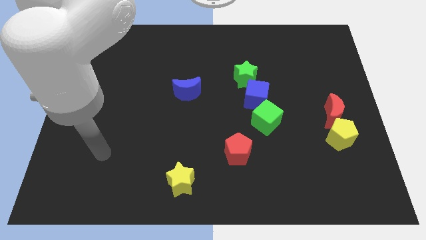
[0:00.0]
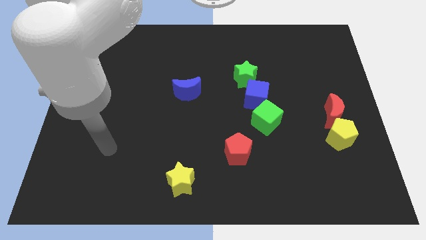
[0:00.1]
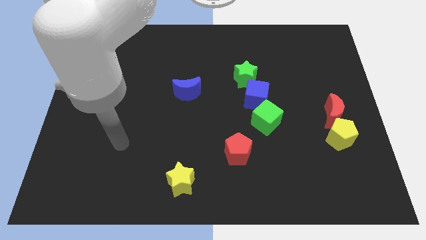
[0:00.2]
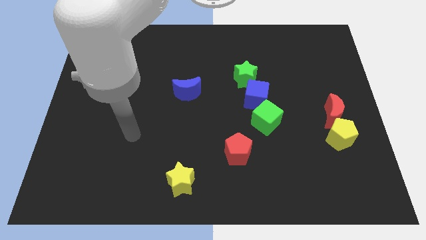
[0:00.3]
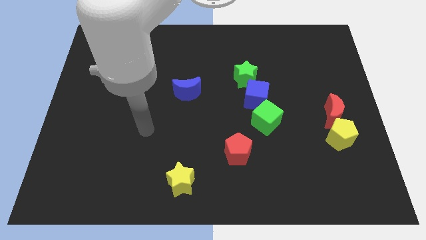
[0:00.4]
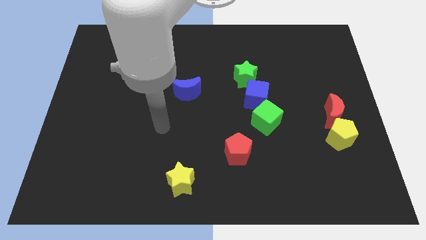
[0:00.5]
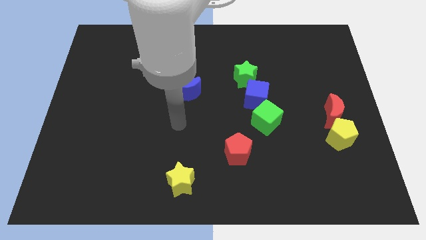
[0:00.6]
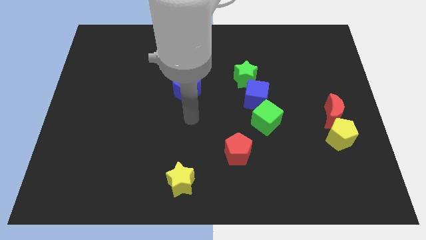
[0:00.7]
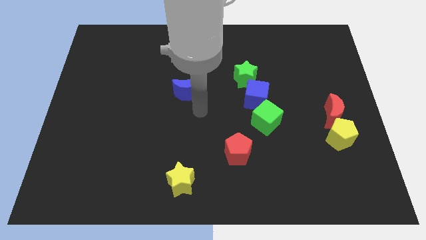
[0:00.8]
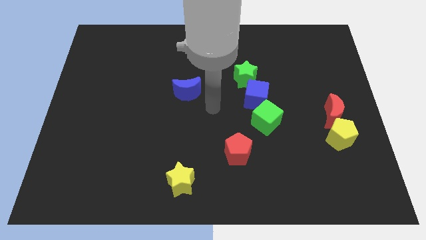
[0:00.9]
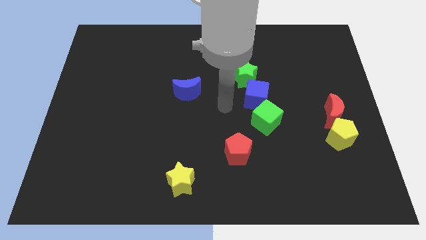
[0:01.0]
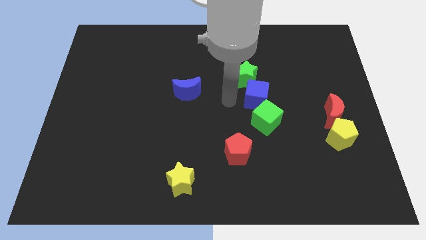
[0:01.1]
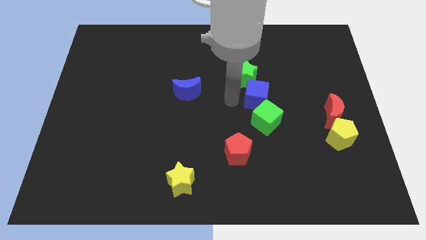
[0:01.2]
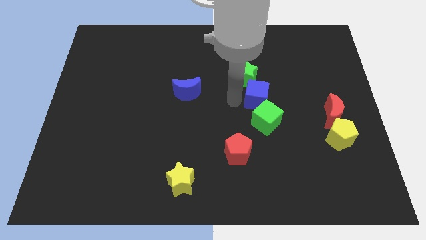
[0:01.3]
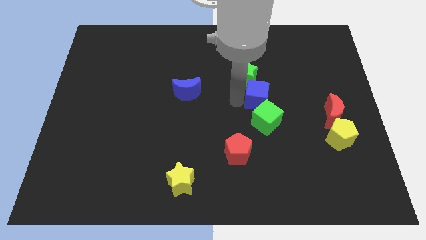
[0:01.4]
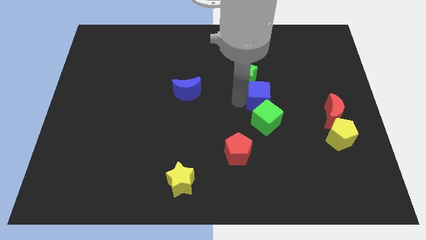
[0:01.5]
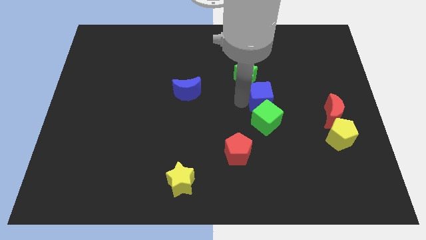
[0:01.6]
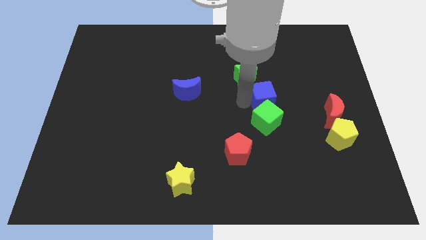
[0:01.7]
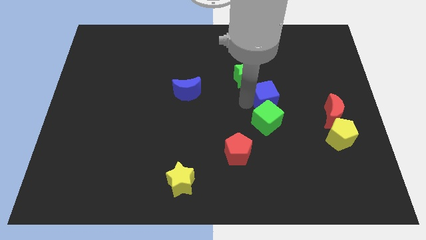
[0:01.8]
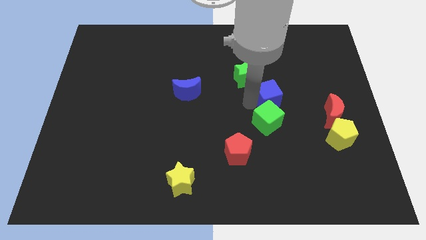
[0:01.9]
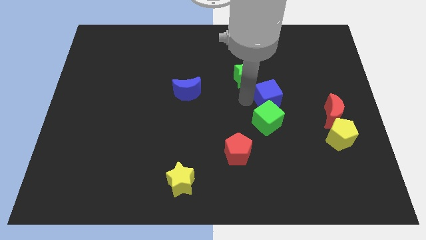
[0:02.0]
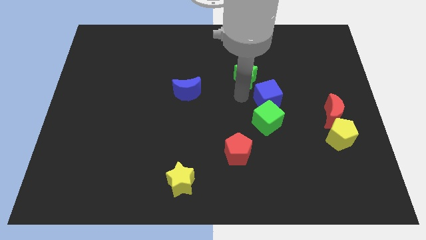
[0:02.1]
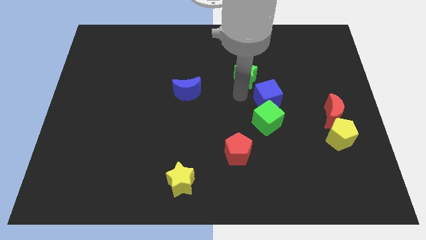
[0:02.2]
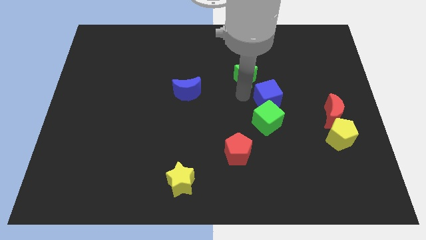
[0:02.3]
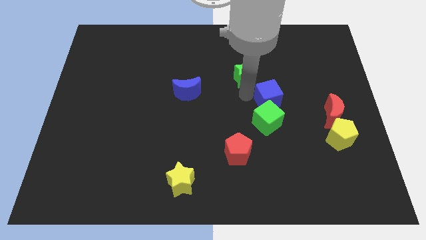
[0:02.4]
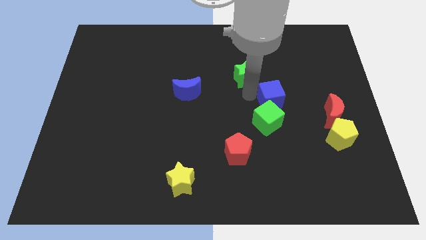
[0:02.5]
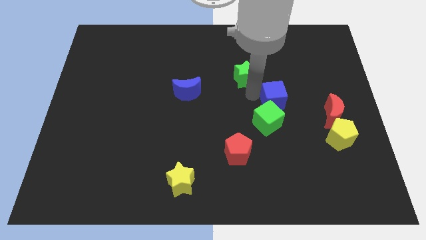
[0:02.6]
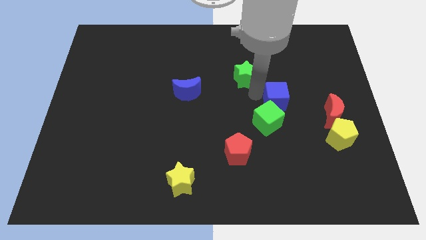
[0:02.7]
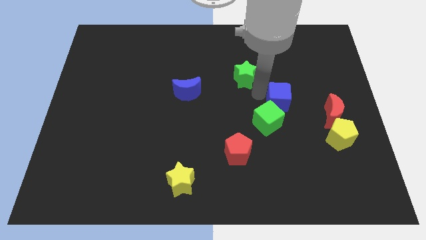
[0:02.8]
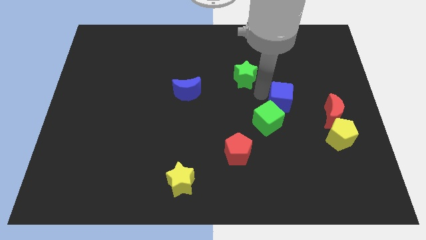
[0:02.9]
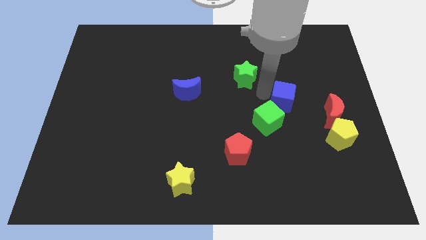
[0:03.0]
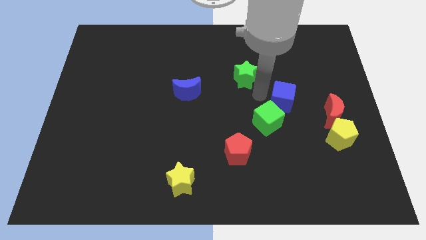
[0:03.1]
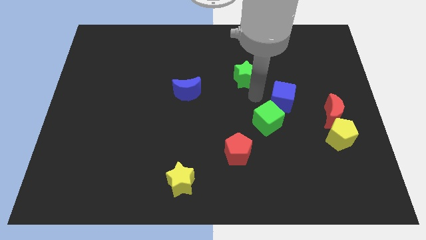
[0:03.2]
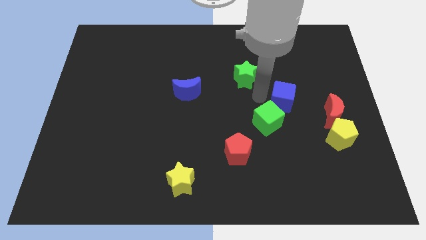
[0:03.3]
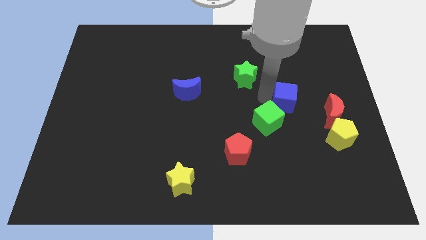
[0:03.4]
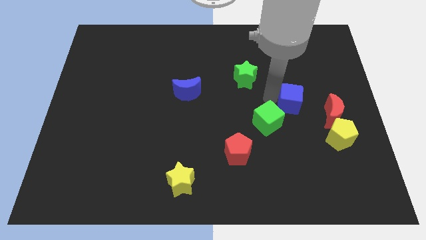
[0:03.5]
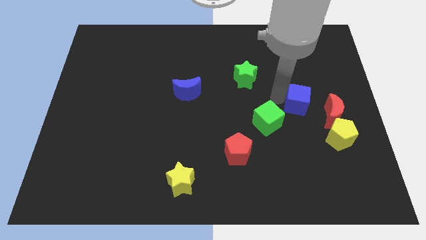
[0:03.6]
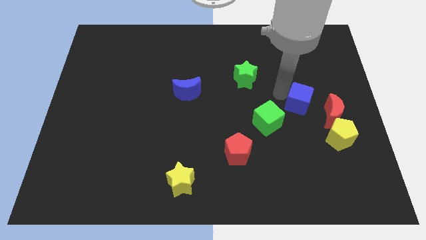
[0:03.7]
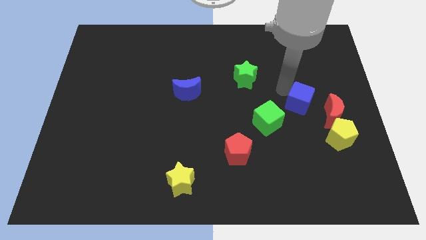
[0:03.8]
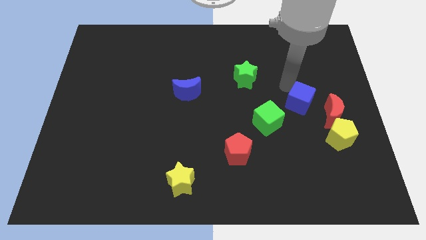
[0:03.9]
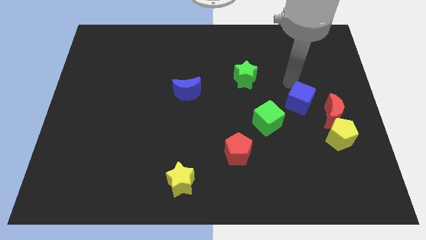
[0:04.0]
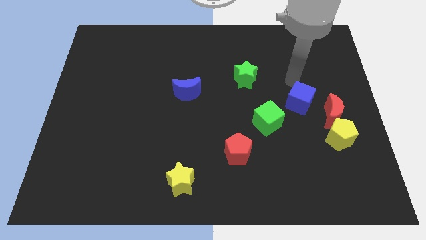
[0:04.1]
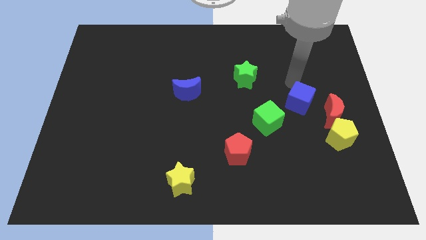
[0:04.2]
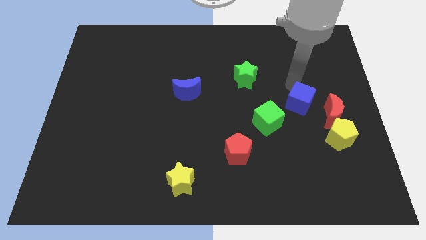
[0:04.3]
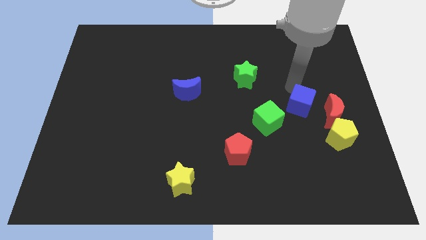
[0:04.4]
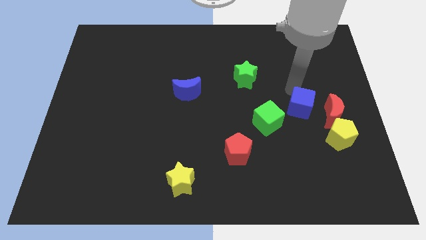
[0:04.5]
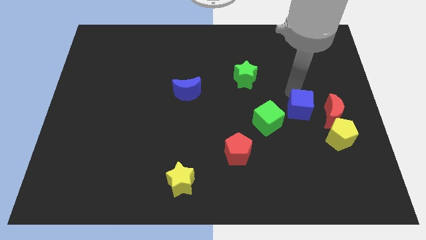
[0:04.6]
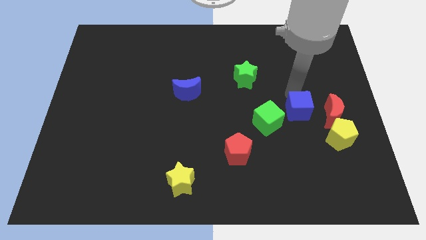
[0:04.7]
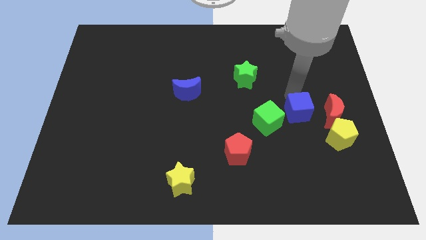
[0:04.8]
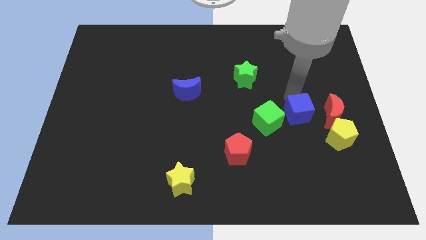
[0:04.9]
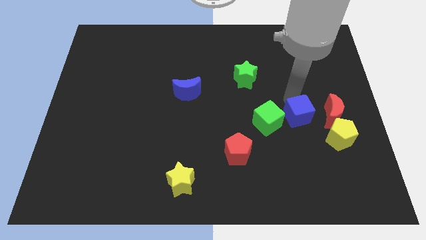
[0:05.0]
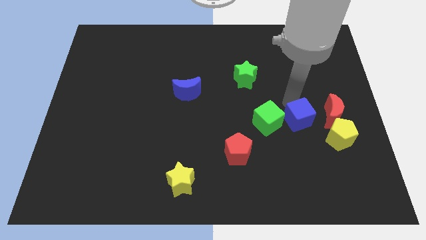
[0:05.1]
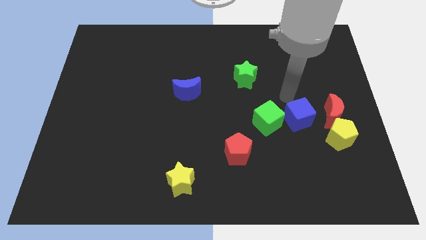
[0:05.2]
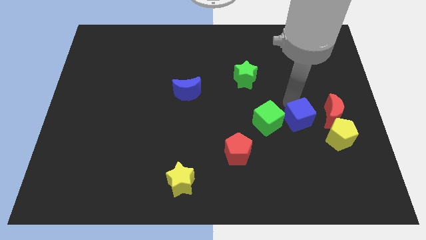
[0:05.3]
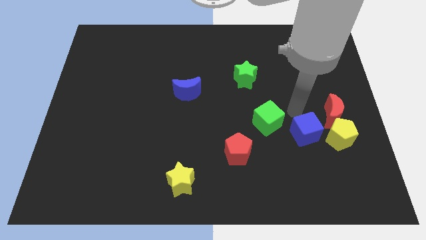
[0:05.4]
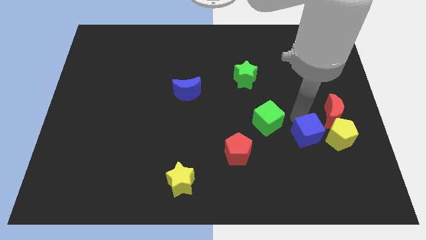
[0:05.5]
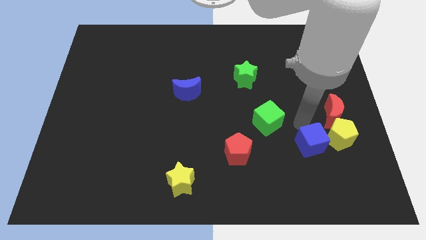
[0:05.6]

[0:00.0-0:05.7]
move the blue cube diagonally down and to the left of the yellow pentagon

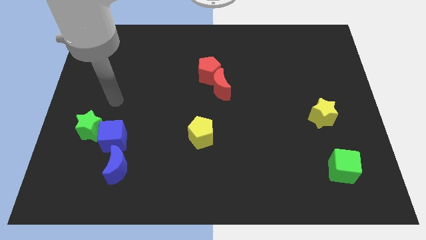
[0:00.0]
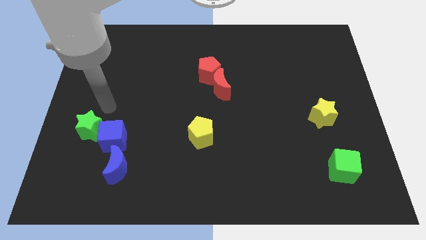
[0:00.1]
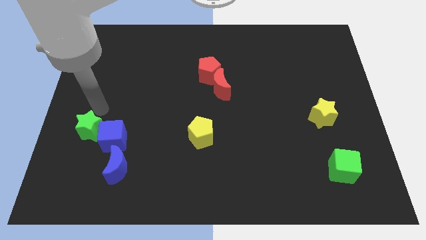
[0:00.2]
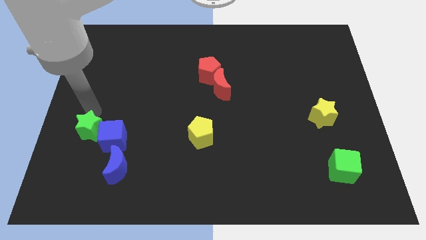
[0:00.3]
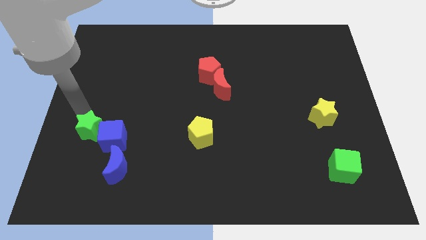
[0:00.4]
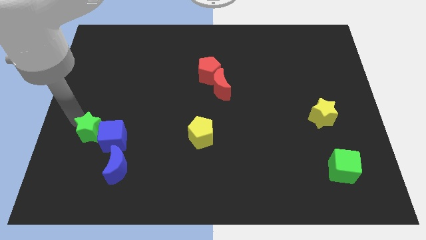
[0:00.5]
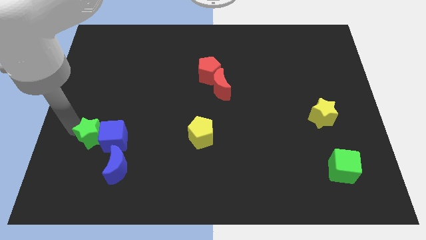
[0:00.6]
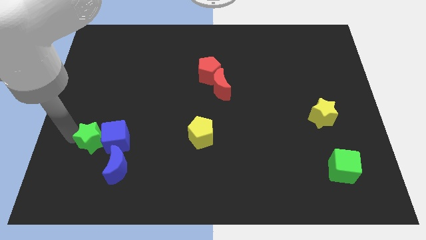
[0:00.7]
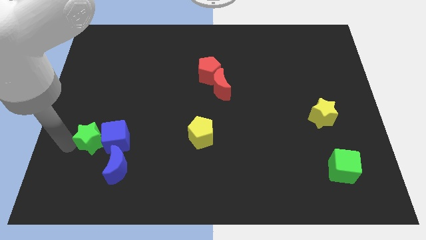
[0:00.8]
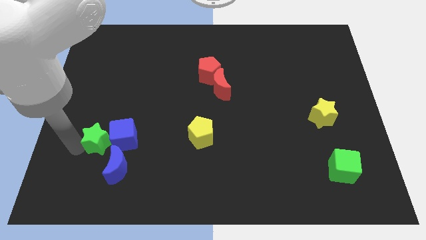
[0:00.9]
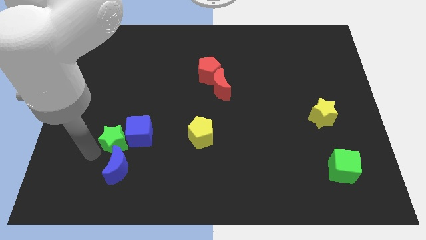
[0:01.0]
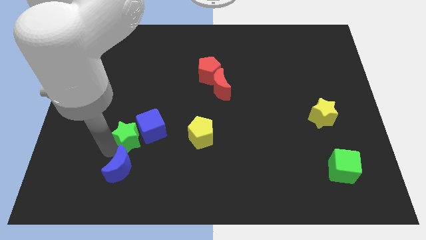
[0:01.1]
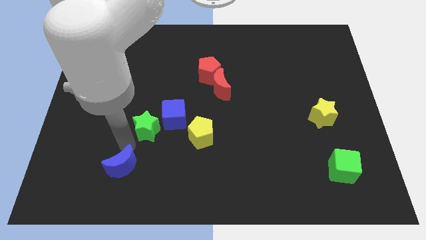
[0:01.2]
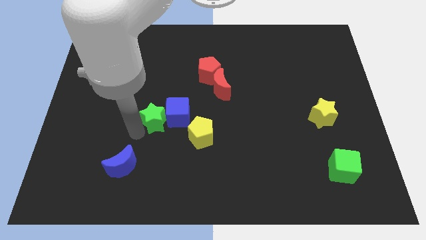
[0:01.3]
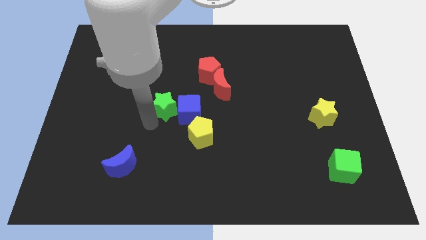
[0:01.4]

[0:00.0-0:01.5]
put the blue cube to the bottom side of the red pentagon
